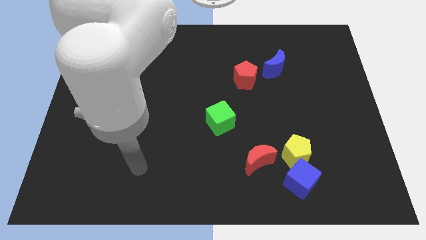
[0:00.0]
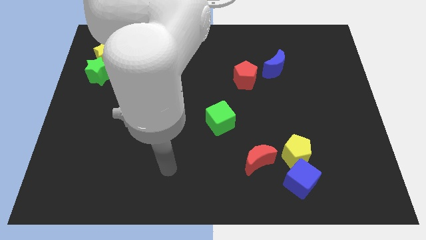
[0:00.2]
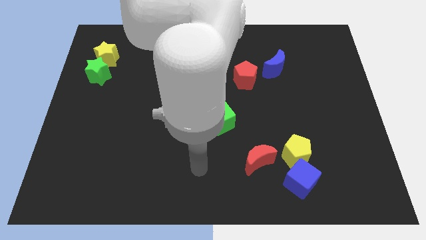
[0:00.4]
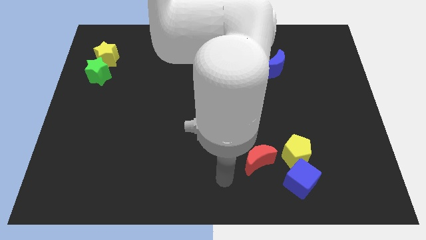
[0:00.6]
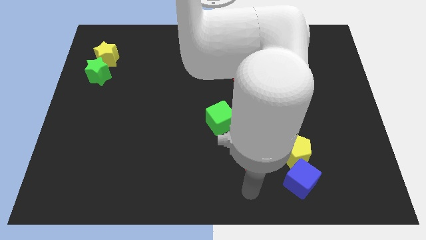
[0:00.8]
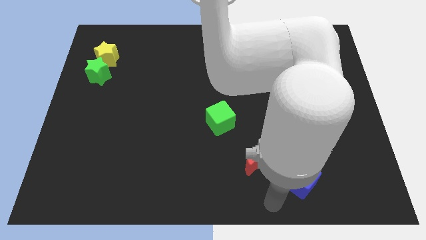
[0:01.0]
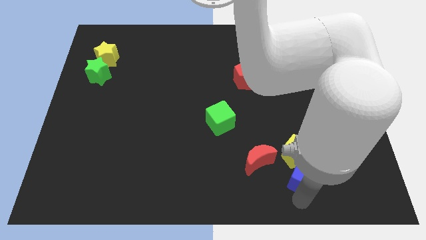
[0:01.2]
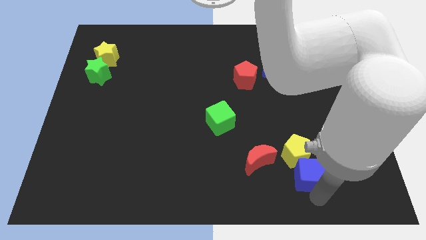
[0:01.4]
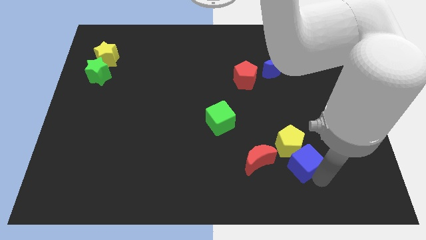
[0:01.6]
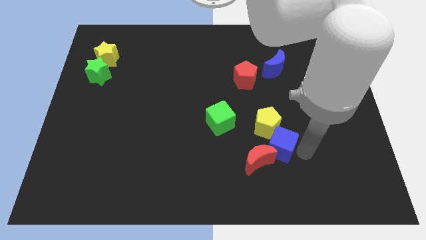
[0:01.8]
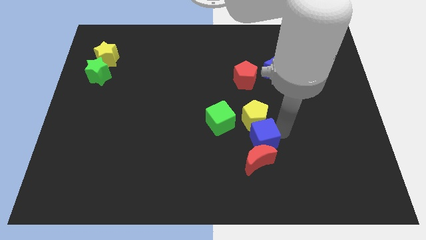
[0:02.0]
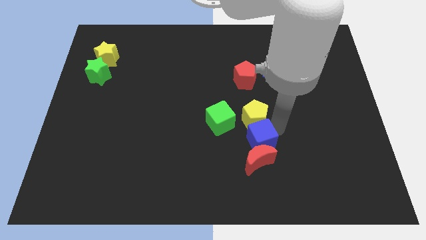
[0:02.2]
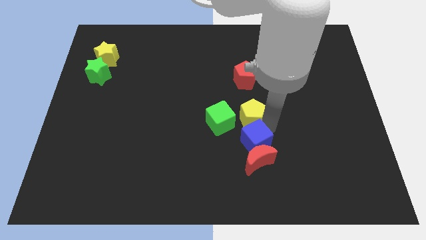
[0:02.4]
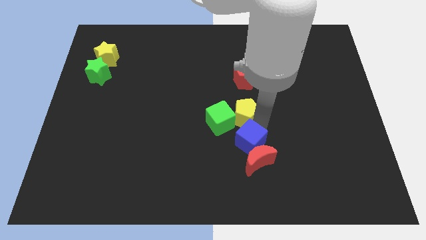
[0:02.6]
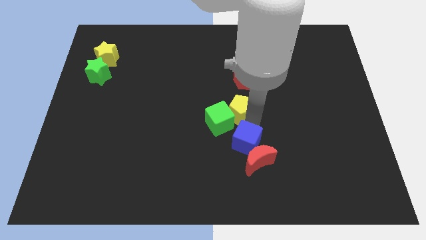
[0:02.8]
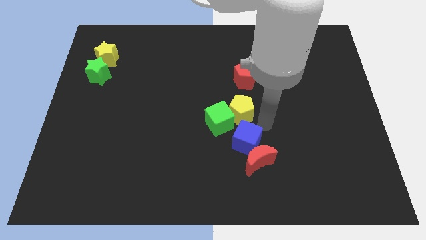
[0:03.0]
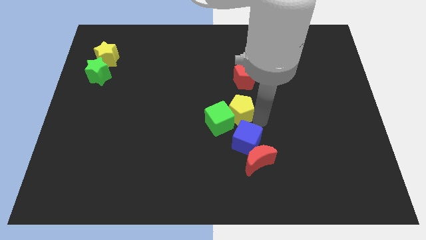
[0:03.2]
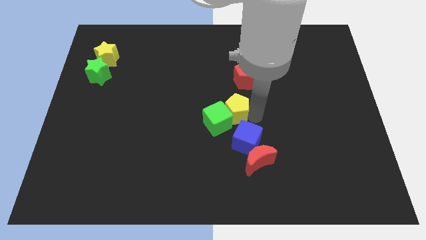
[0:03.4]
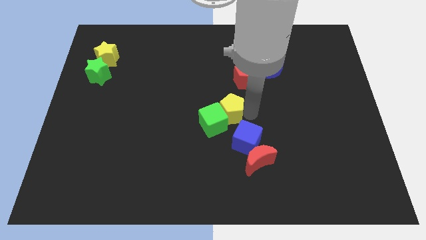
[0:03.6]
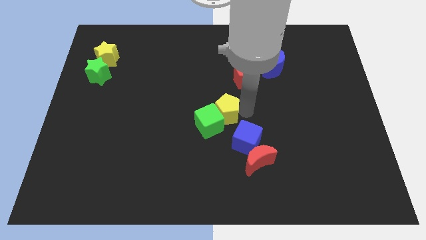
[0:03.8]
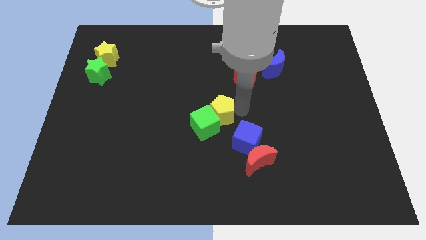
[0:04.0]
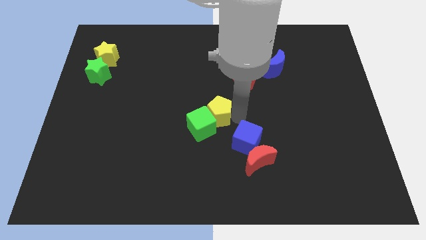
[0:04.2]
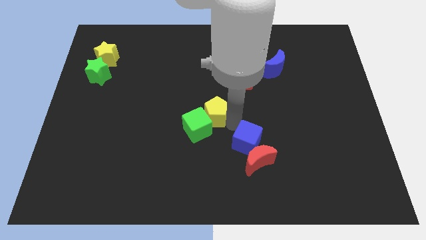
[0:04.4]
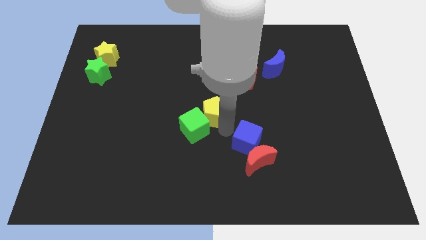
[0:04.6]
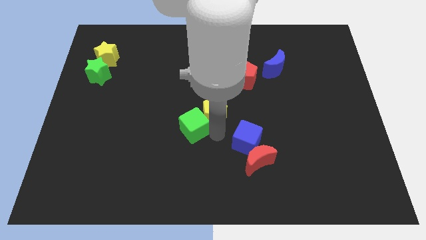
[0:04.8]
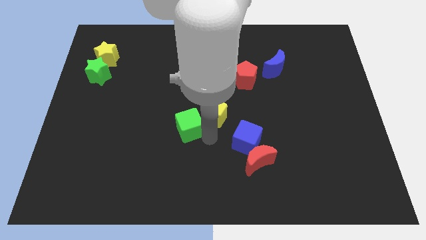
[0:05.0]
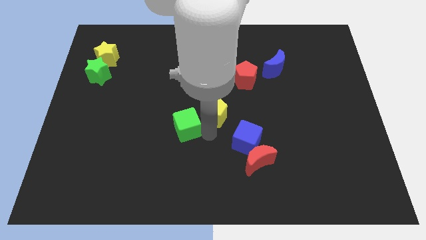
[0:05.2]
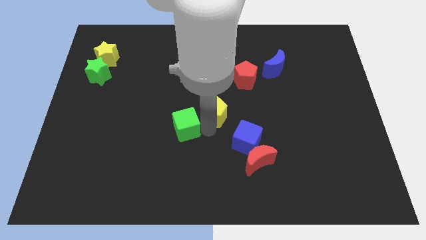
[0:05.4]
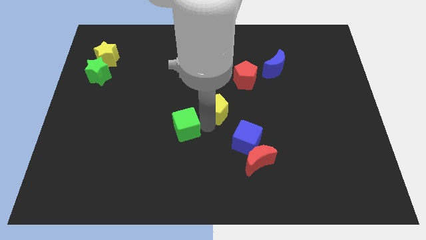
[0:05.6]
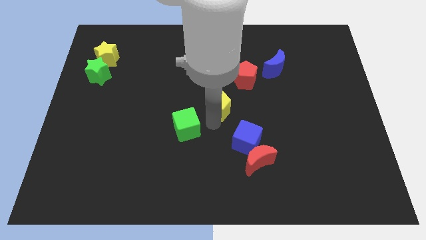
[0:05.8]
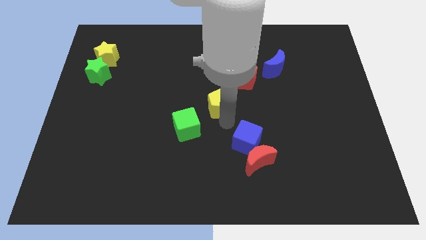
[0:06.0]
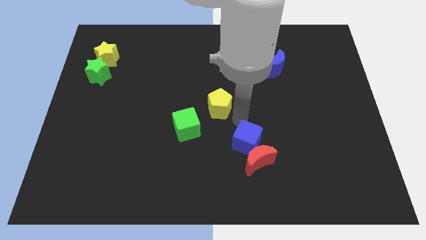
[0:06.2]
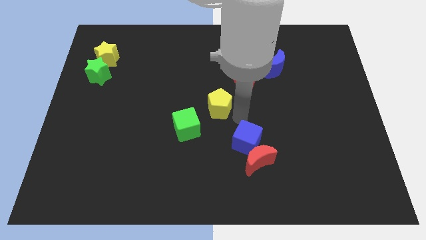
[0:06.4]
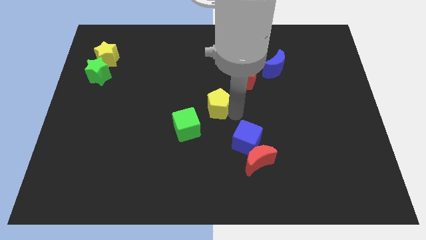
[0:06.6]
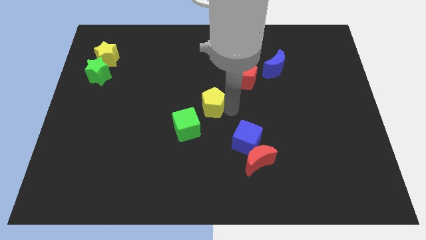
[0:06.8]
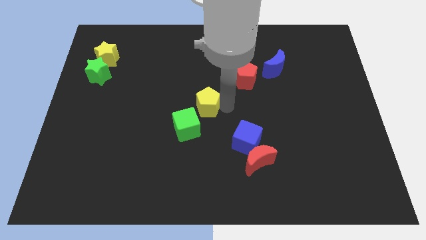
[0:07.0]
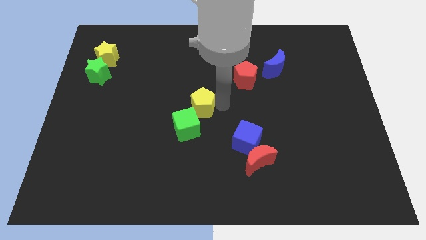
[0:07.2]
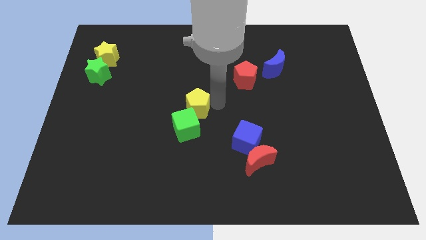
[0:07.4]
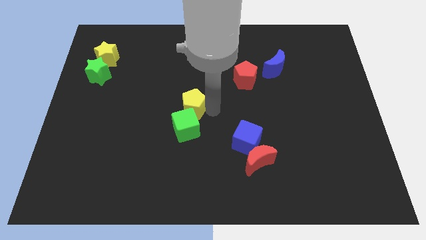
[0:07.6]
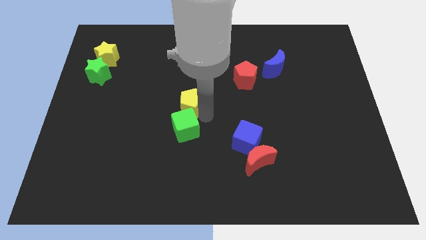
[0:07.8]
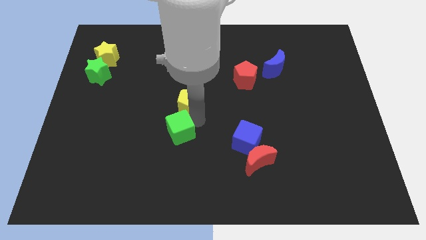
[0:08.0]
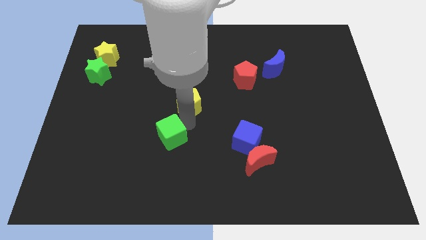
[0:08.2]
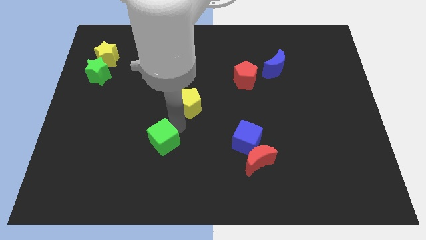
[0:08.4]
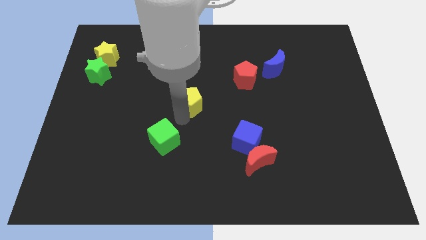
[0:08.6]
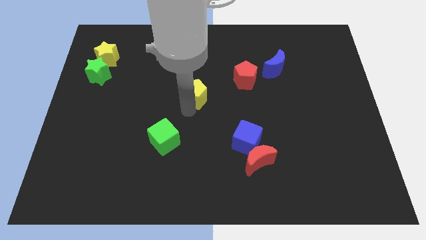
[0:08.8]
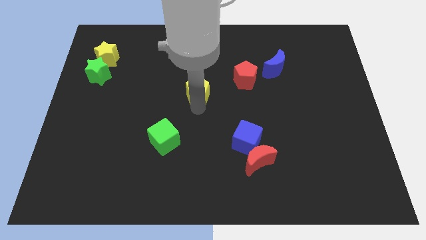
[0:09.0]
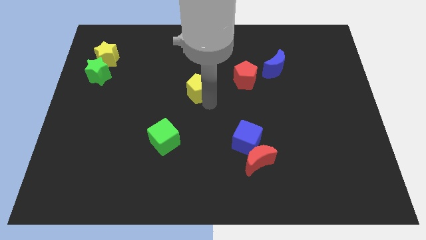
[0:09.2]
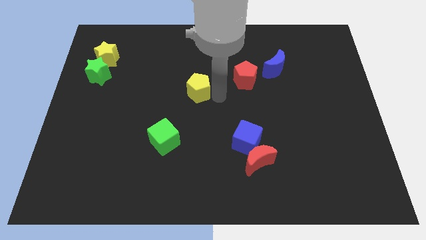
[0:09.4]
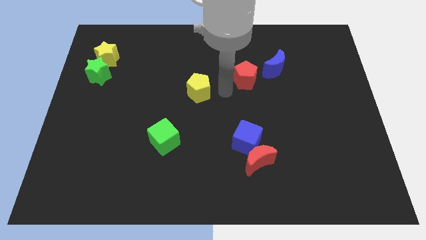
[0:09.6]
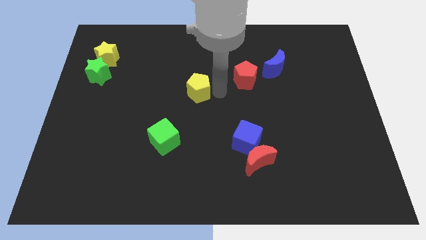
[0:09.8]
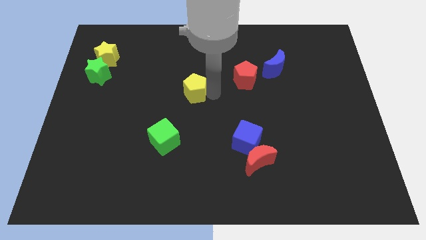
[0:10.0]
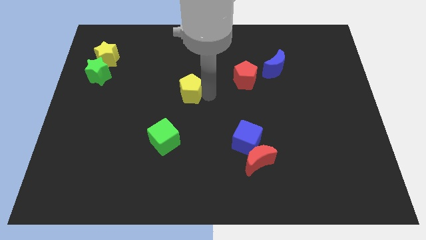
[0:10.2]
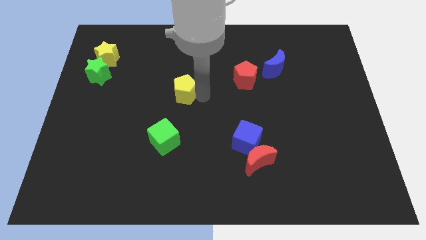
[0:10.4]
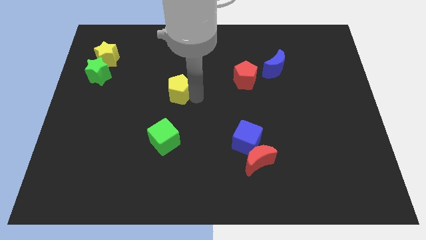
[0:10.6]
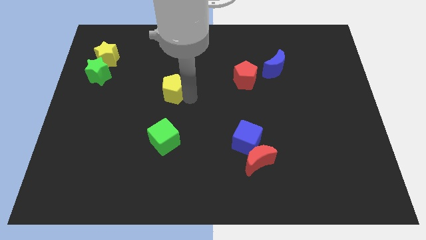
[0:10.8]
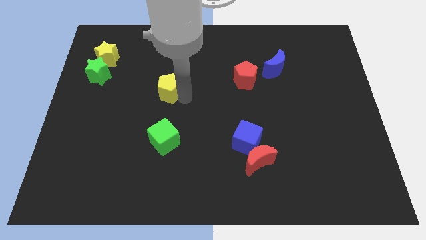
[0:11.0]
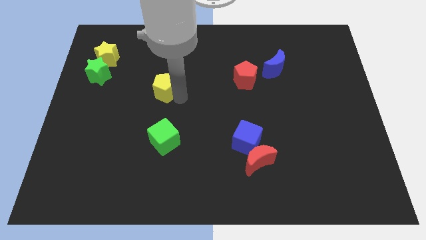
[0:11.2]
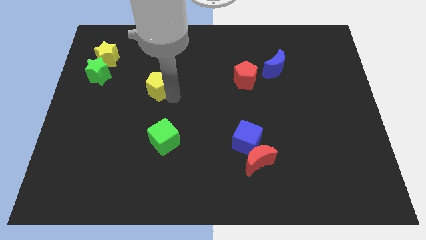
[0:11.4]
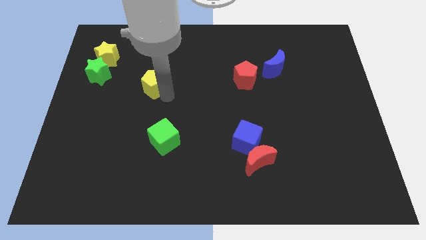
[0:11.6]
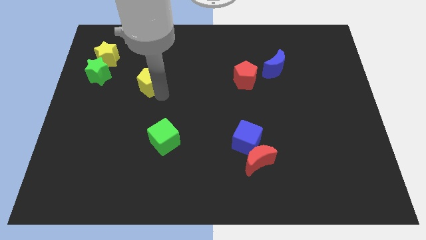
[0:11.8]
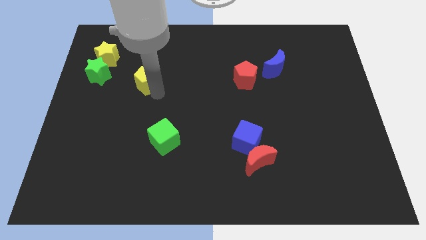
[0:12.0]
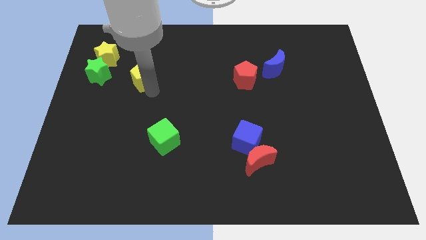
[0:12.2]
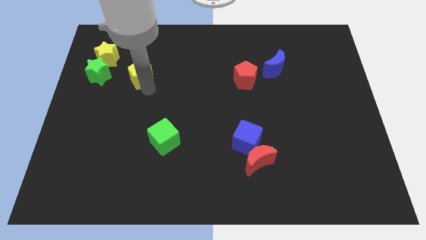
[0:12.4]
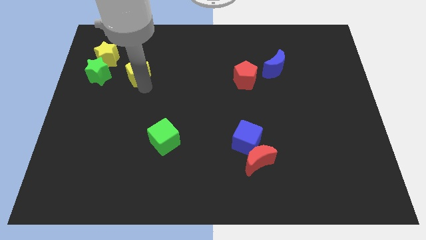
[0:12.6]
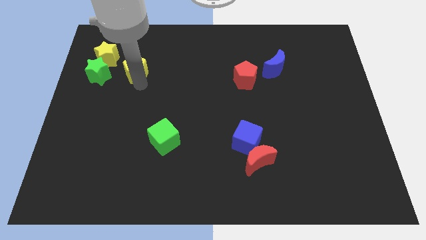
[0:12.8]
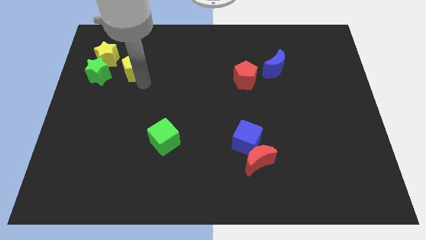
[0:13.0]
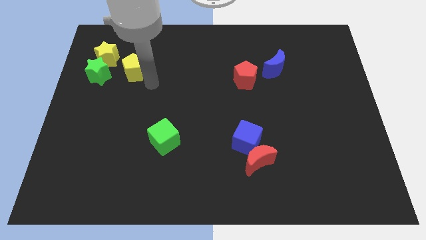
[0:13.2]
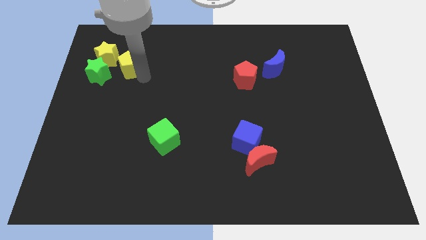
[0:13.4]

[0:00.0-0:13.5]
move the yellow pentagon diagonally up and to the right of the green star
